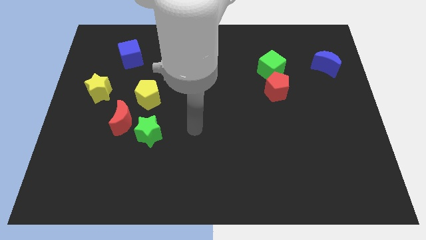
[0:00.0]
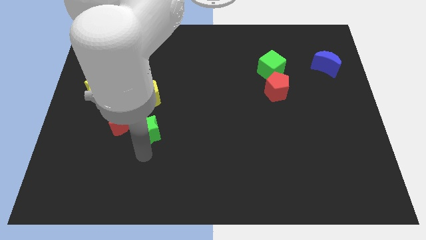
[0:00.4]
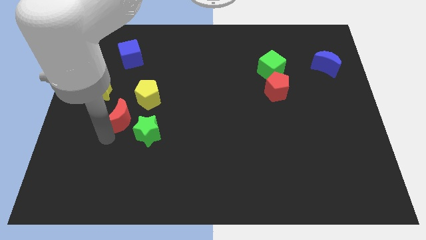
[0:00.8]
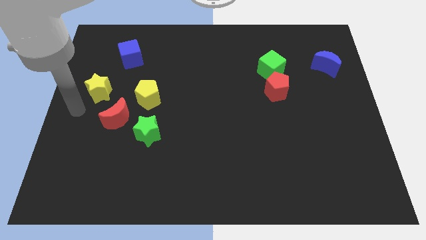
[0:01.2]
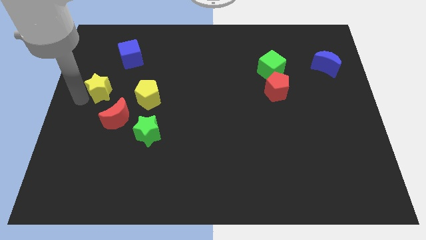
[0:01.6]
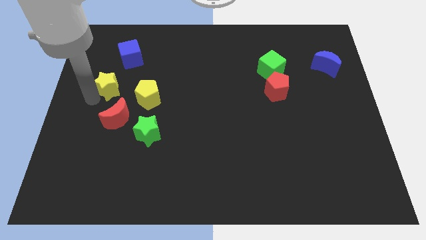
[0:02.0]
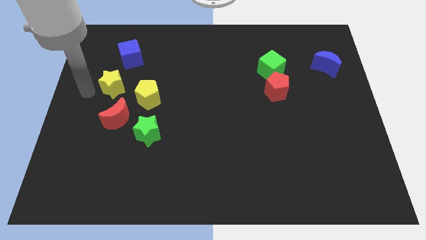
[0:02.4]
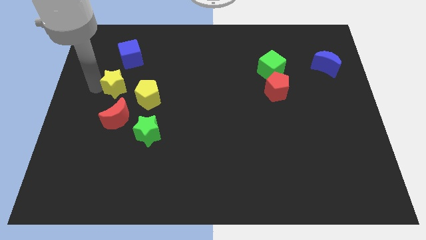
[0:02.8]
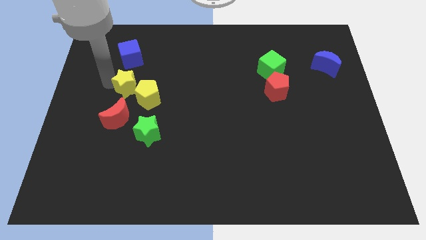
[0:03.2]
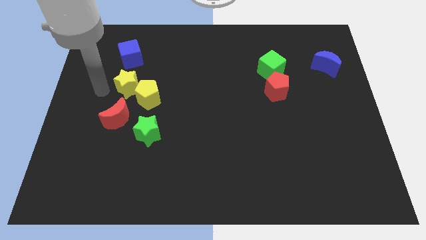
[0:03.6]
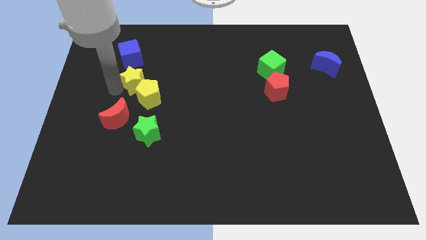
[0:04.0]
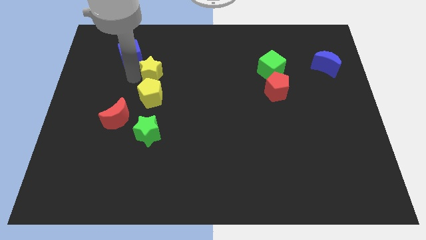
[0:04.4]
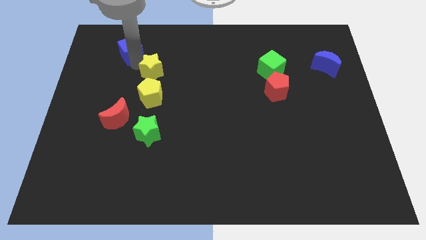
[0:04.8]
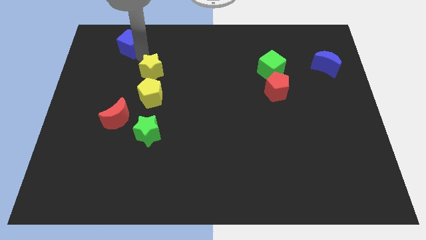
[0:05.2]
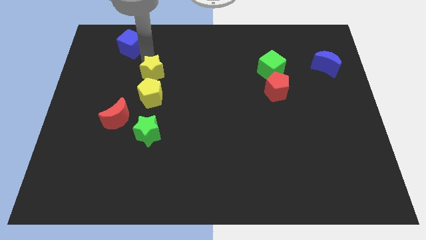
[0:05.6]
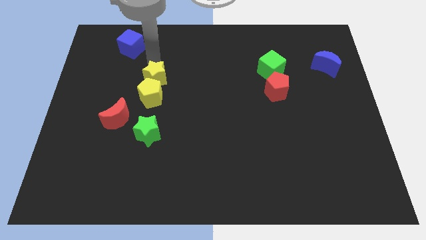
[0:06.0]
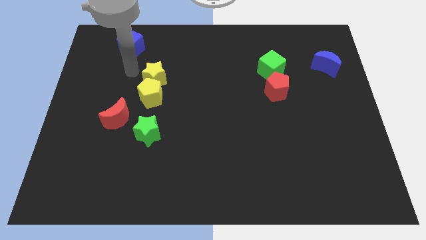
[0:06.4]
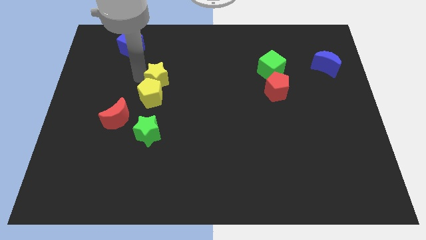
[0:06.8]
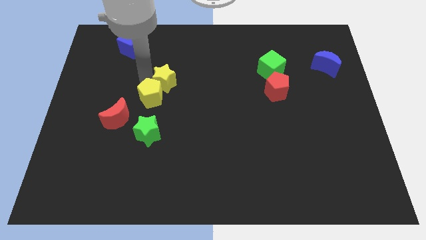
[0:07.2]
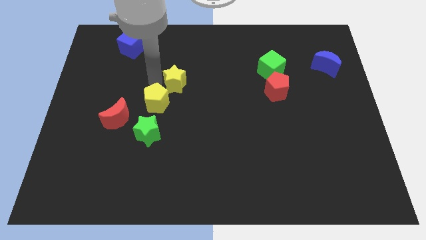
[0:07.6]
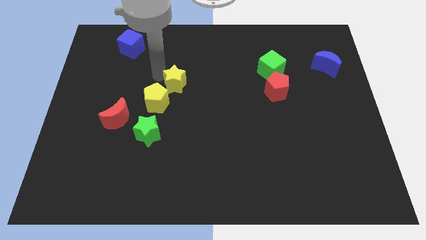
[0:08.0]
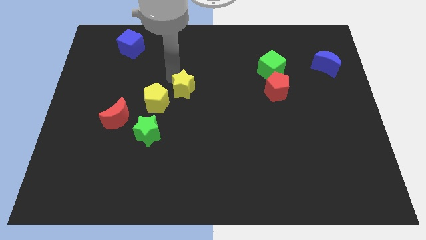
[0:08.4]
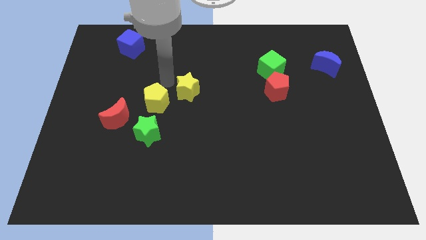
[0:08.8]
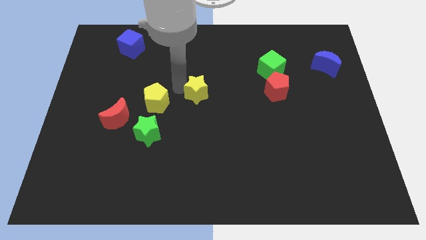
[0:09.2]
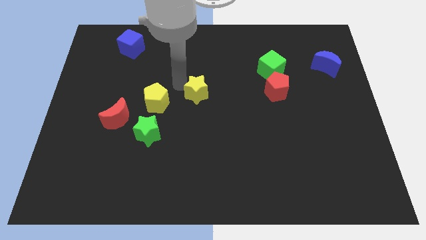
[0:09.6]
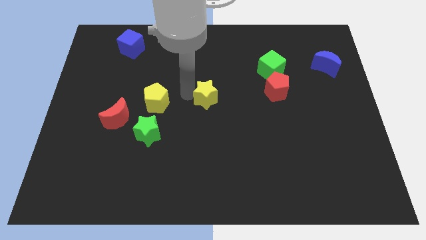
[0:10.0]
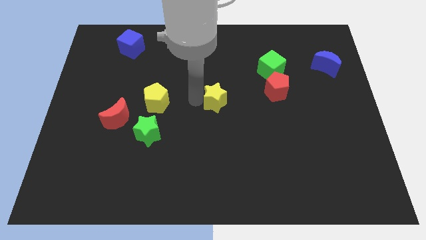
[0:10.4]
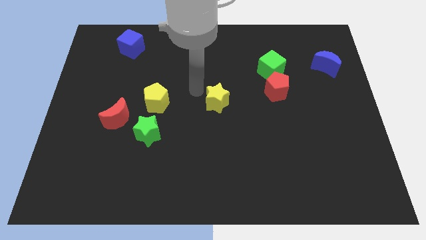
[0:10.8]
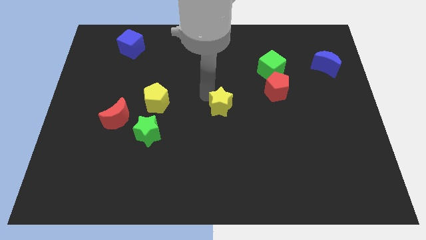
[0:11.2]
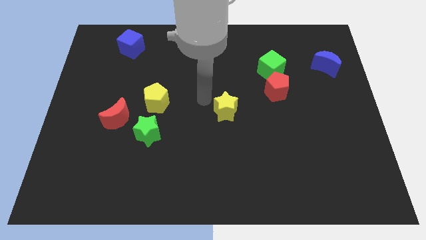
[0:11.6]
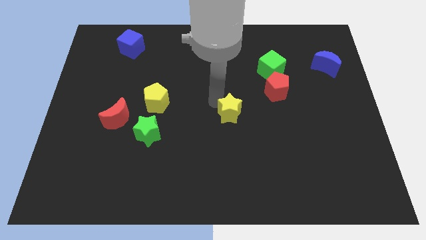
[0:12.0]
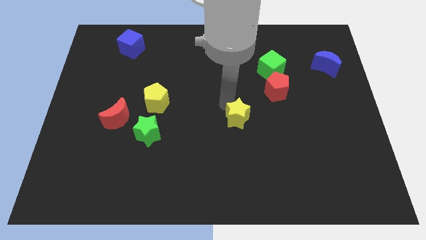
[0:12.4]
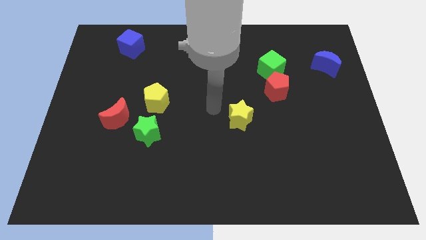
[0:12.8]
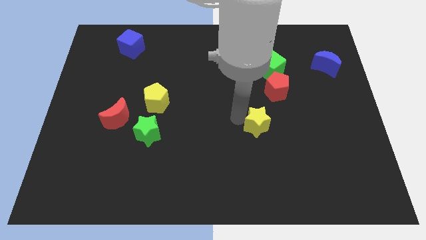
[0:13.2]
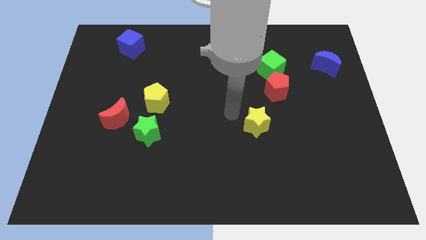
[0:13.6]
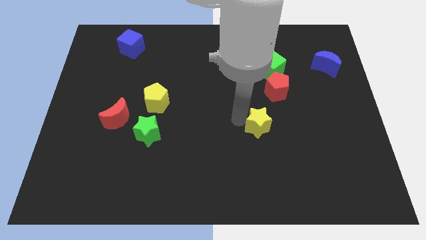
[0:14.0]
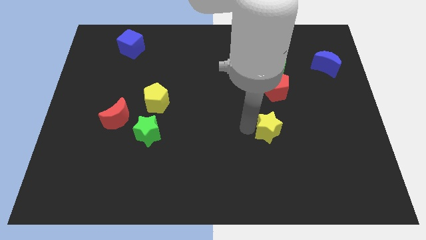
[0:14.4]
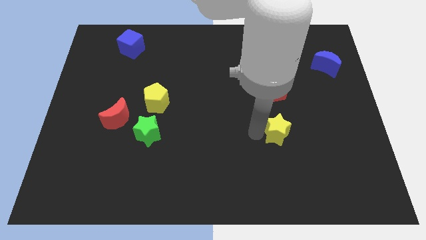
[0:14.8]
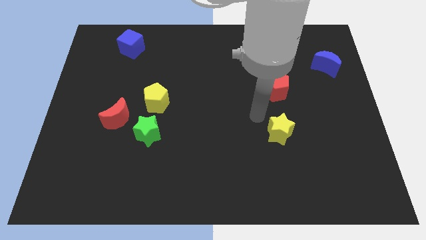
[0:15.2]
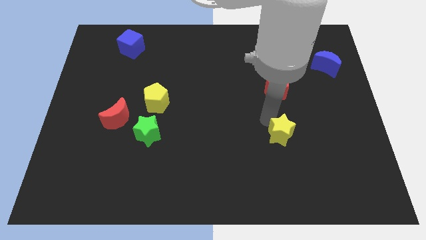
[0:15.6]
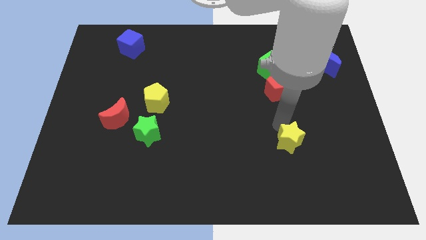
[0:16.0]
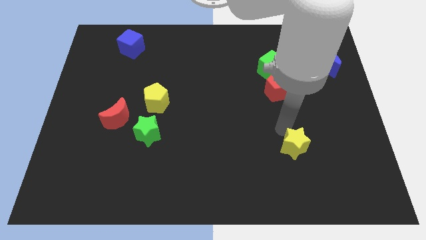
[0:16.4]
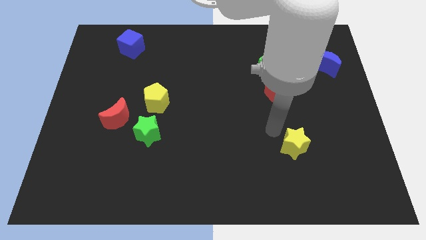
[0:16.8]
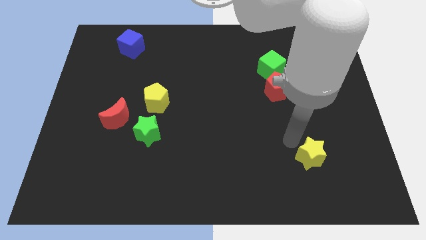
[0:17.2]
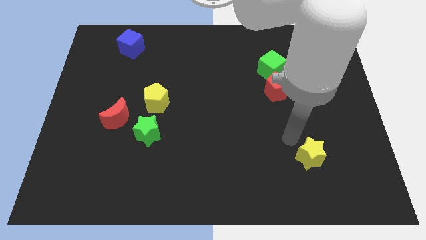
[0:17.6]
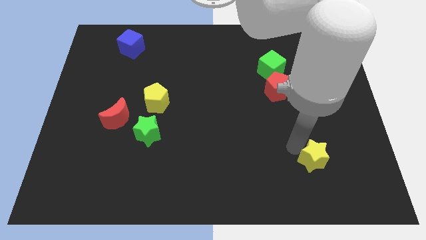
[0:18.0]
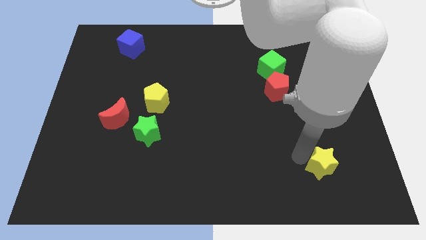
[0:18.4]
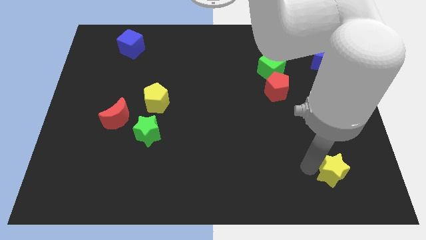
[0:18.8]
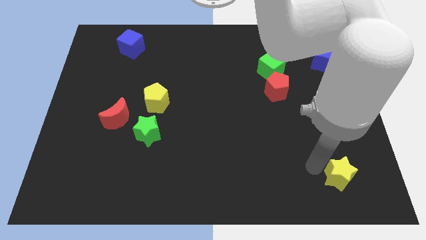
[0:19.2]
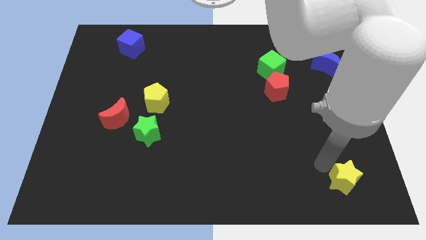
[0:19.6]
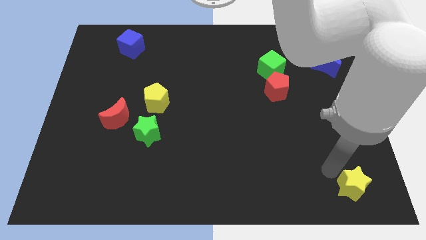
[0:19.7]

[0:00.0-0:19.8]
move the yellow star to the bottom right corner

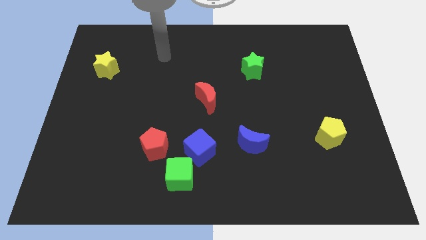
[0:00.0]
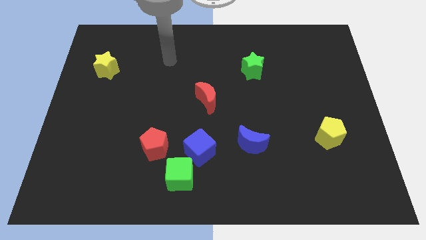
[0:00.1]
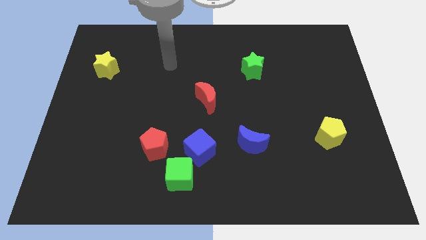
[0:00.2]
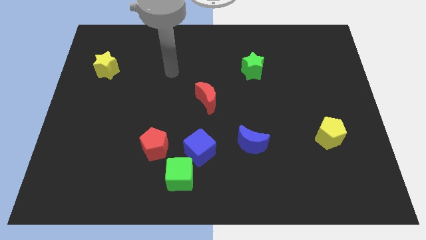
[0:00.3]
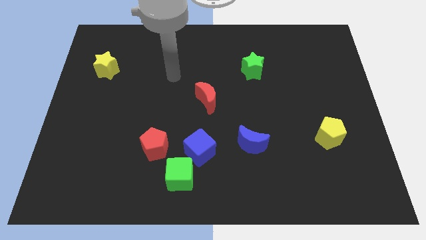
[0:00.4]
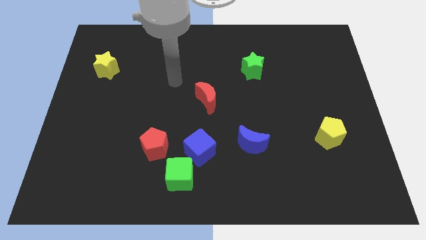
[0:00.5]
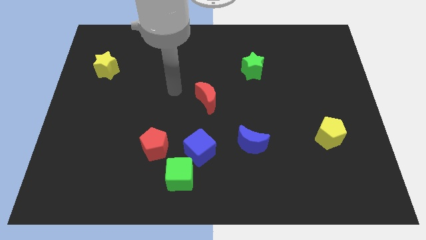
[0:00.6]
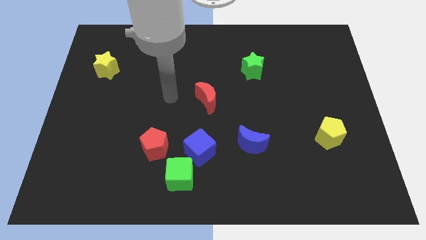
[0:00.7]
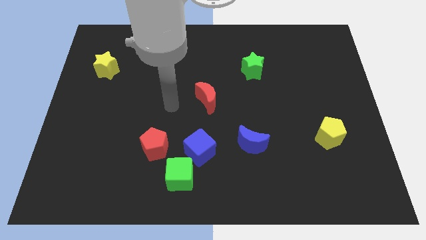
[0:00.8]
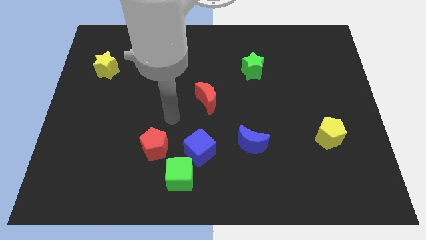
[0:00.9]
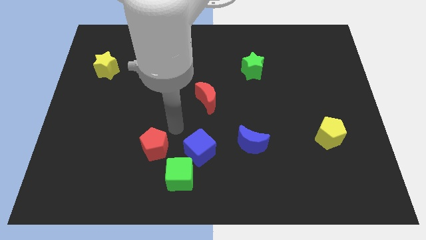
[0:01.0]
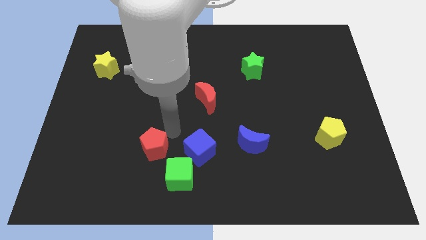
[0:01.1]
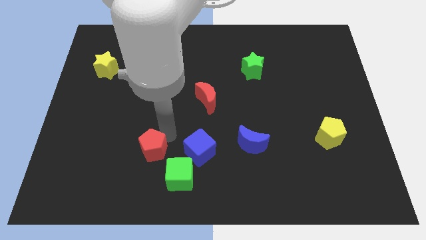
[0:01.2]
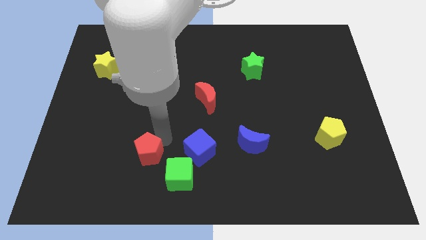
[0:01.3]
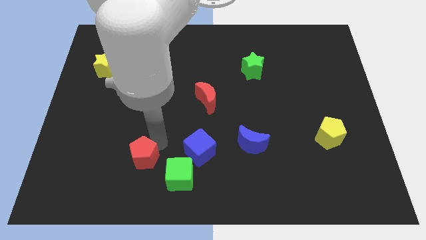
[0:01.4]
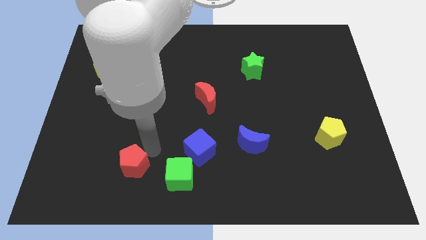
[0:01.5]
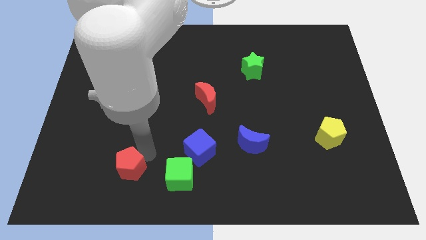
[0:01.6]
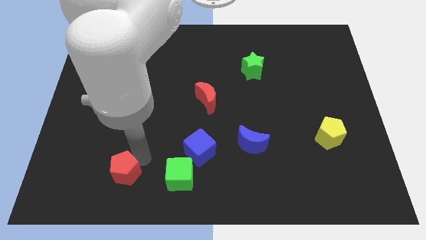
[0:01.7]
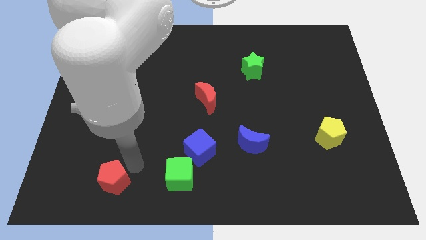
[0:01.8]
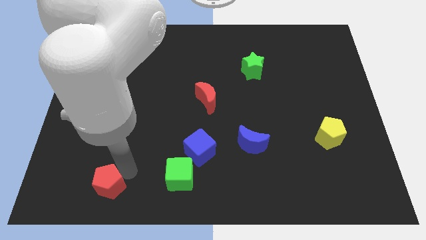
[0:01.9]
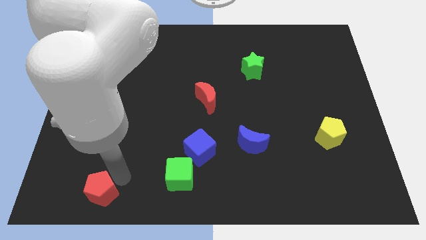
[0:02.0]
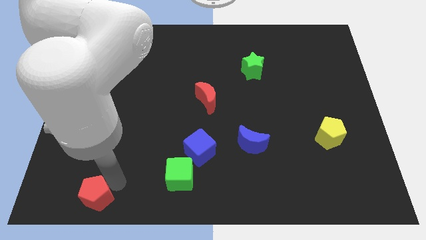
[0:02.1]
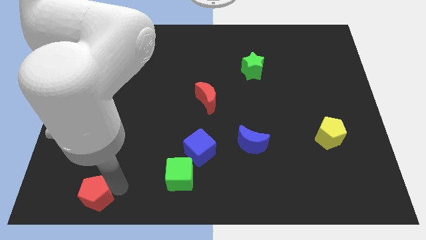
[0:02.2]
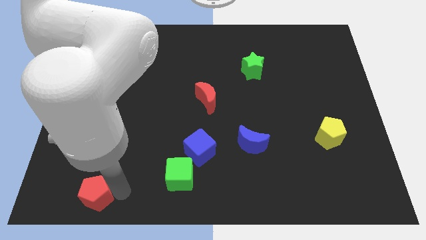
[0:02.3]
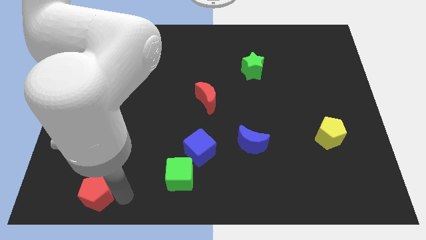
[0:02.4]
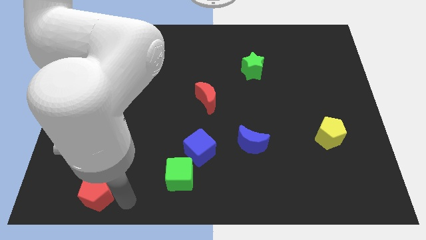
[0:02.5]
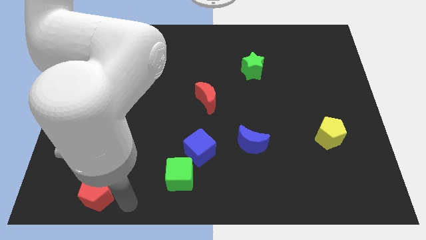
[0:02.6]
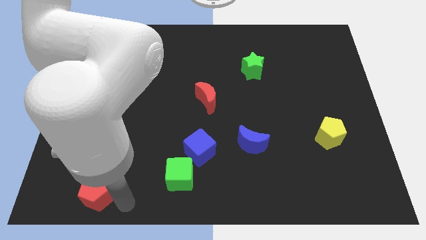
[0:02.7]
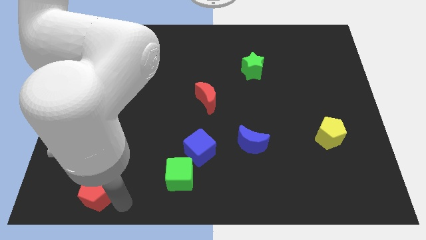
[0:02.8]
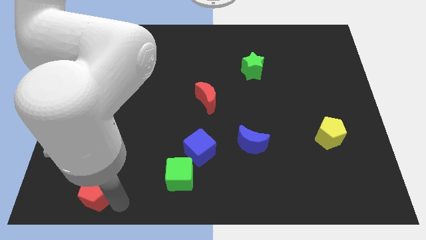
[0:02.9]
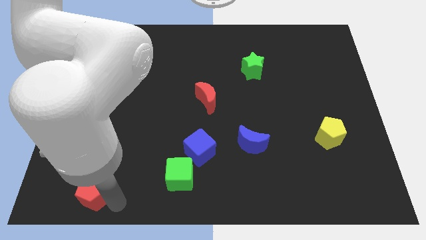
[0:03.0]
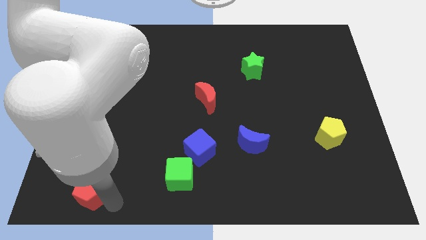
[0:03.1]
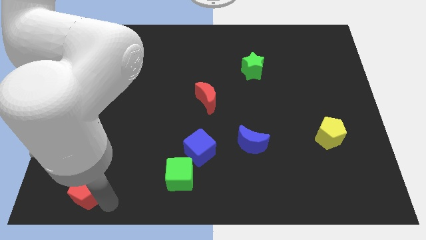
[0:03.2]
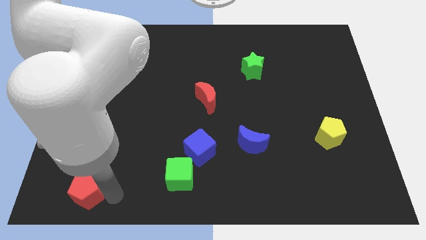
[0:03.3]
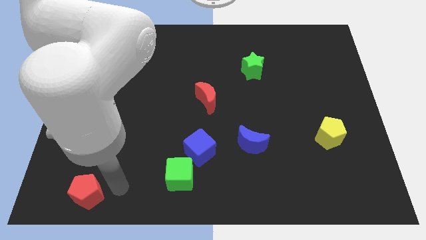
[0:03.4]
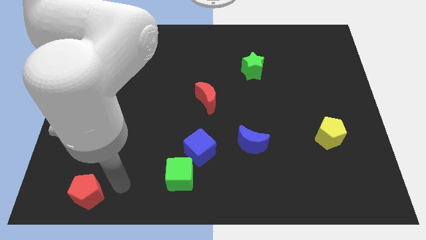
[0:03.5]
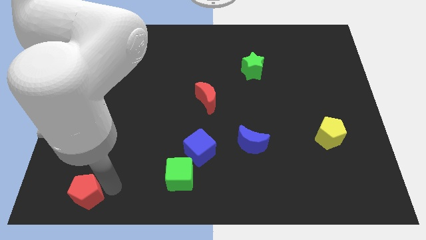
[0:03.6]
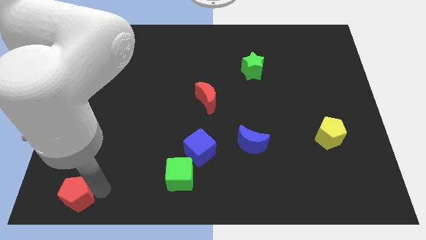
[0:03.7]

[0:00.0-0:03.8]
put the red pentagon to the bottom left of the board
